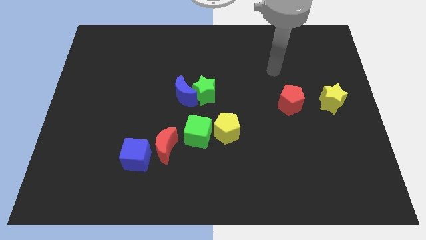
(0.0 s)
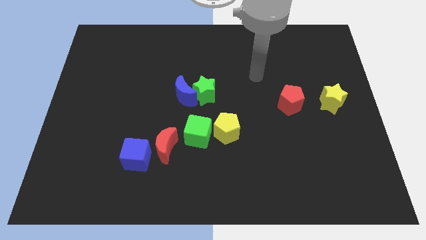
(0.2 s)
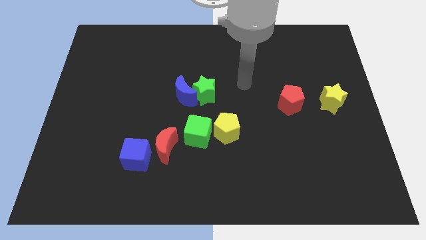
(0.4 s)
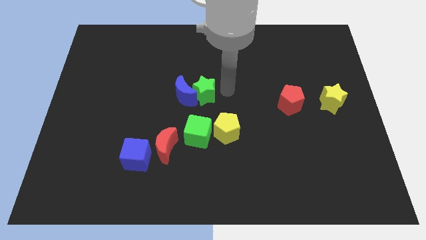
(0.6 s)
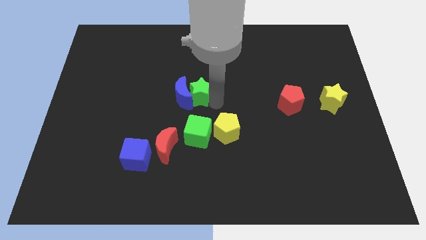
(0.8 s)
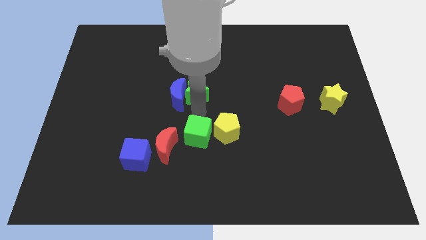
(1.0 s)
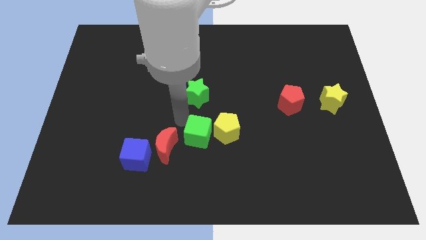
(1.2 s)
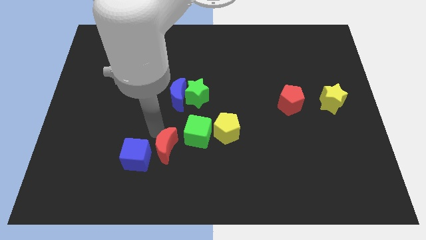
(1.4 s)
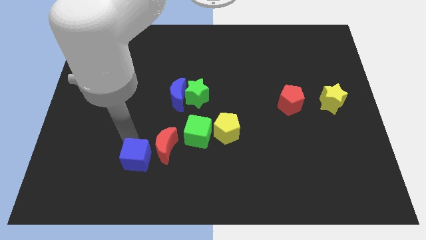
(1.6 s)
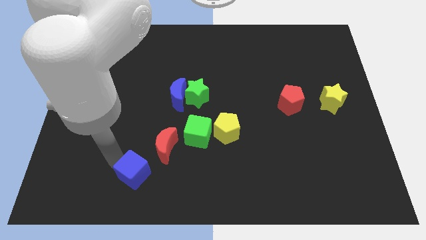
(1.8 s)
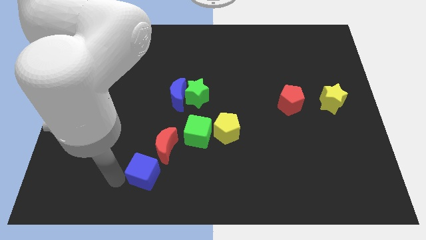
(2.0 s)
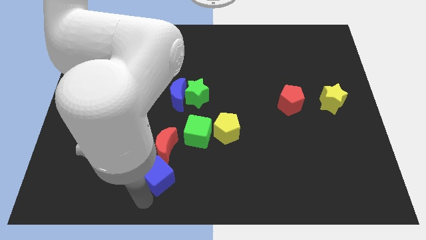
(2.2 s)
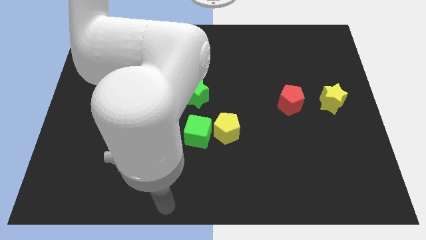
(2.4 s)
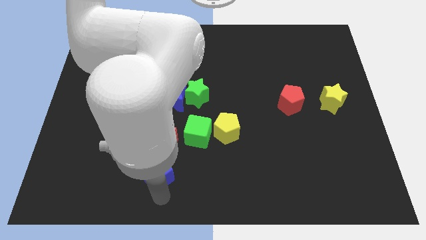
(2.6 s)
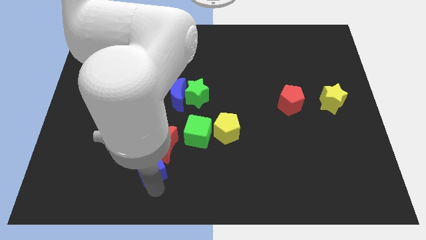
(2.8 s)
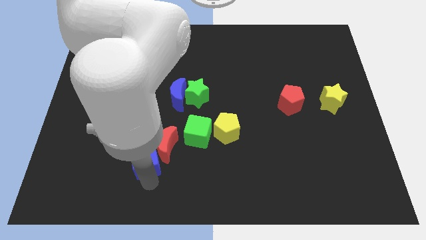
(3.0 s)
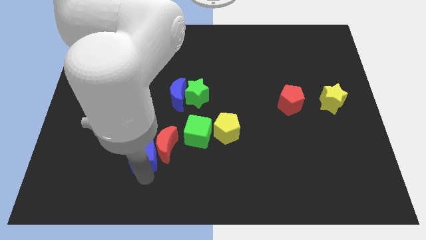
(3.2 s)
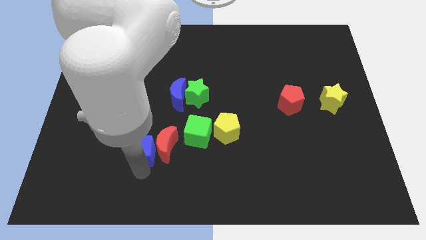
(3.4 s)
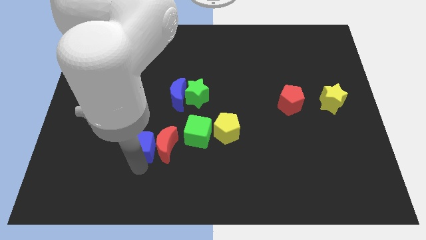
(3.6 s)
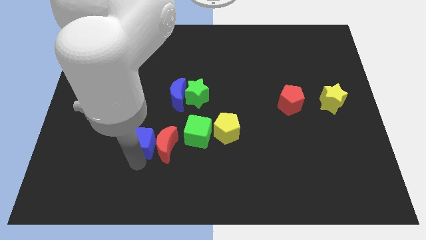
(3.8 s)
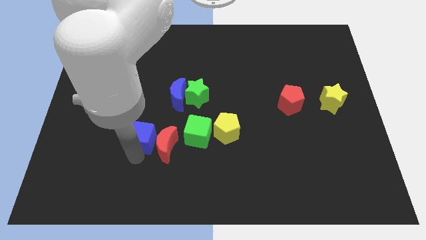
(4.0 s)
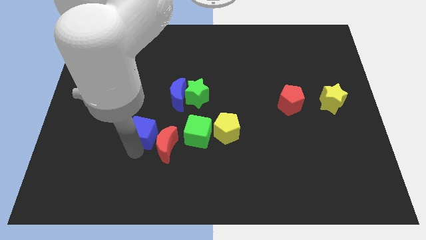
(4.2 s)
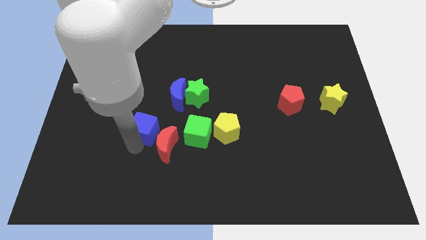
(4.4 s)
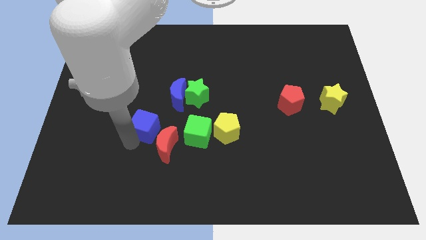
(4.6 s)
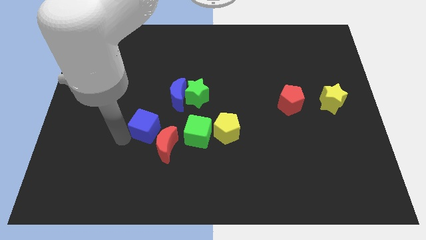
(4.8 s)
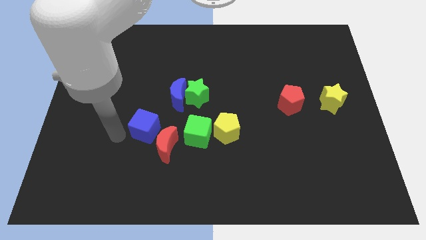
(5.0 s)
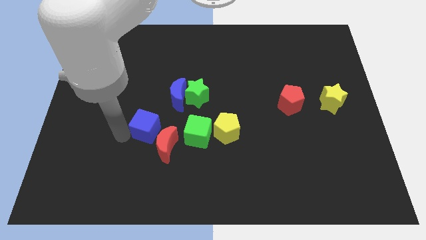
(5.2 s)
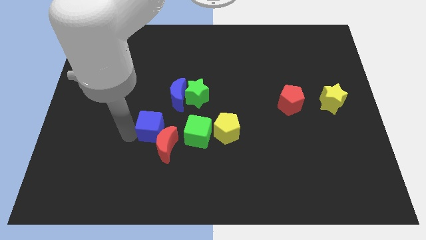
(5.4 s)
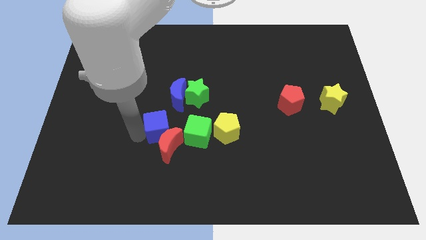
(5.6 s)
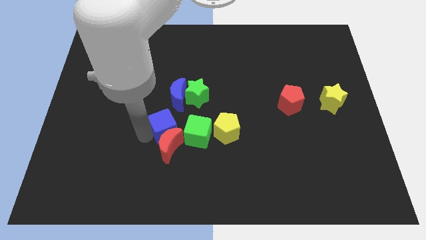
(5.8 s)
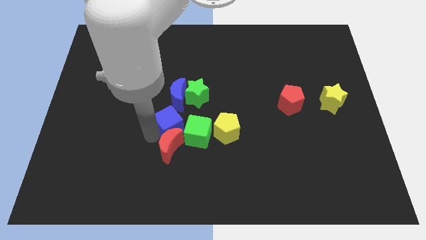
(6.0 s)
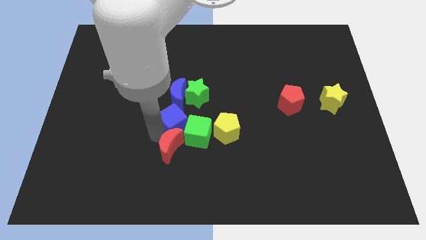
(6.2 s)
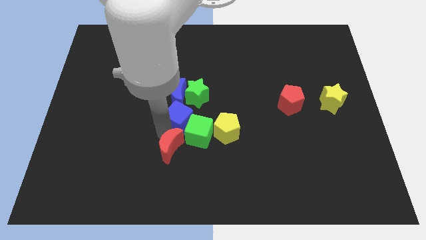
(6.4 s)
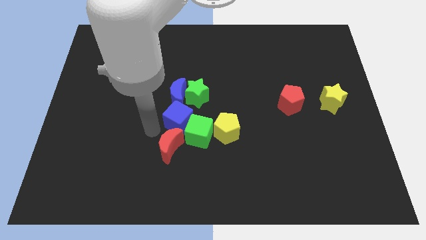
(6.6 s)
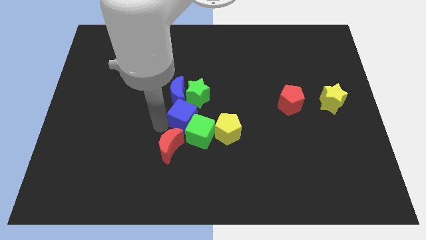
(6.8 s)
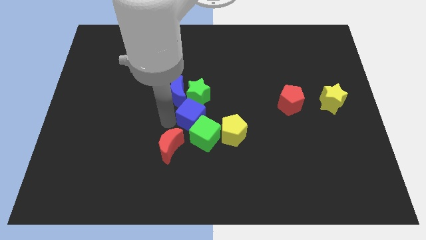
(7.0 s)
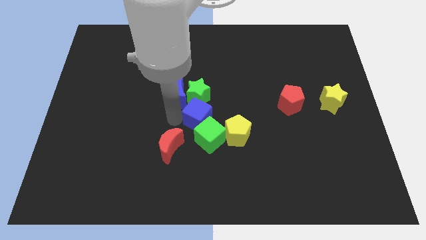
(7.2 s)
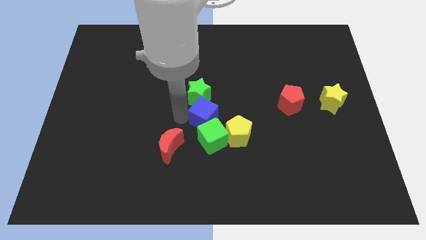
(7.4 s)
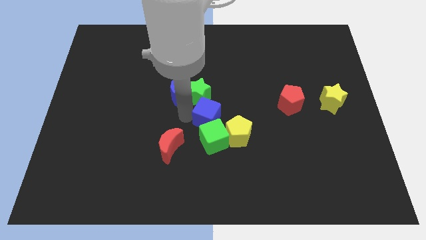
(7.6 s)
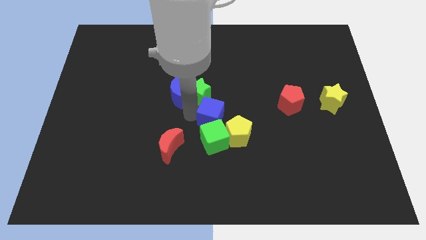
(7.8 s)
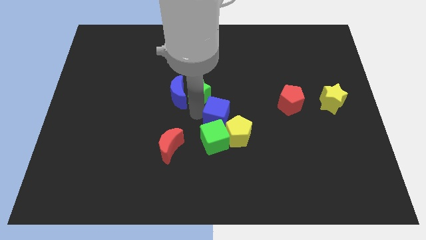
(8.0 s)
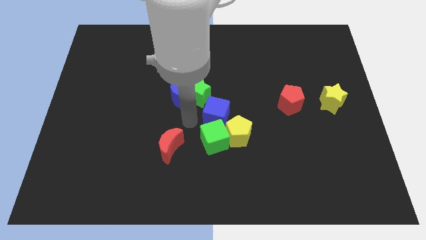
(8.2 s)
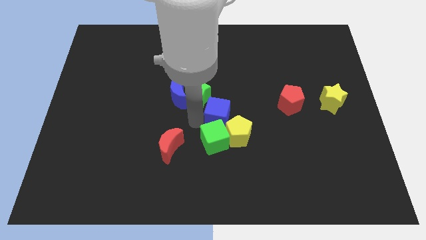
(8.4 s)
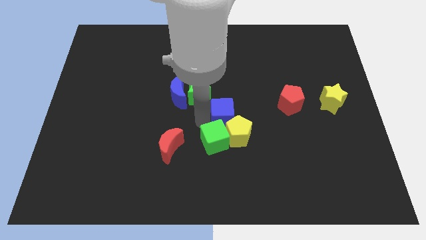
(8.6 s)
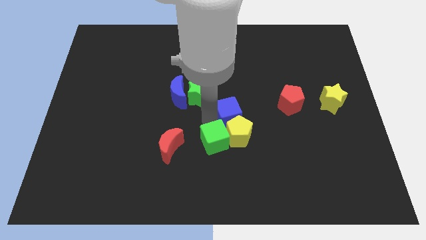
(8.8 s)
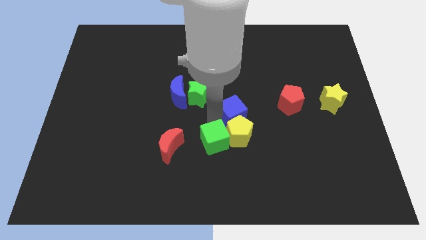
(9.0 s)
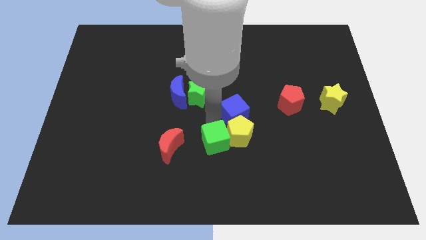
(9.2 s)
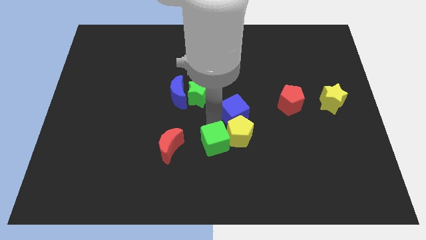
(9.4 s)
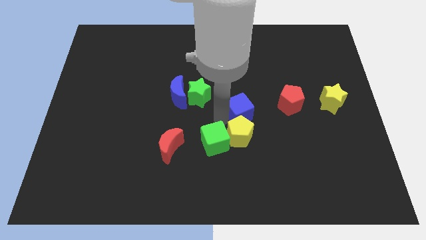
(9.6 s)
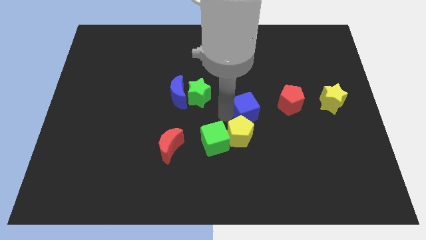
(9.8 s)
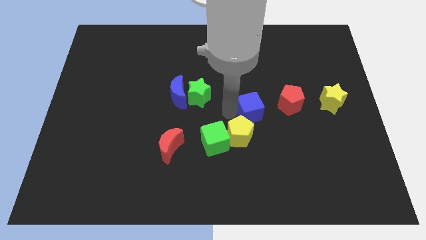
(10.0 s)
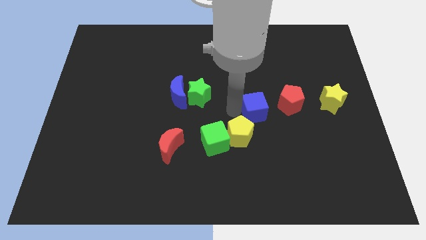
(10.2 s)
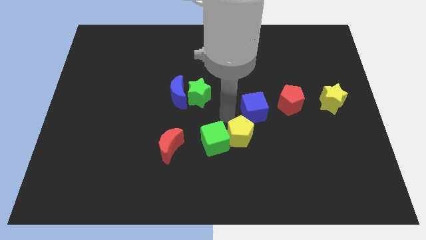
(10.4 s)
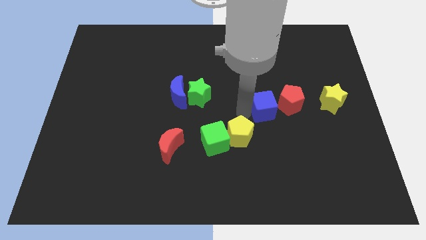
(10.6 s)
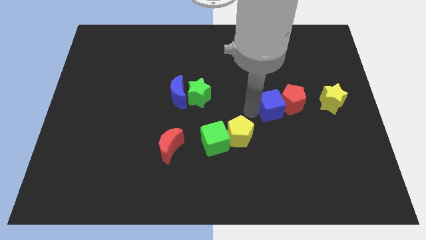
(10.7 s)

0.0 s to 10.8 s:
slide the blue cube close to the red pentagon

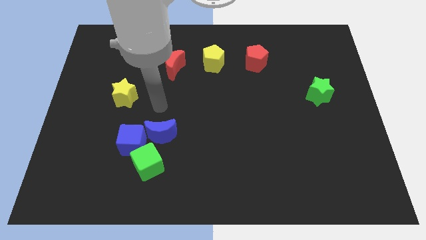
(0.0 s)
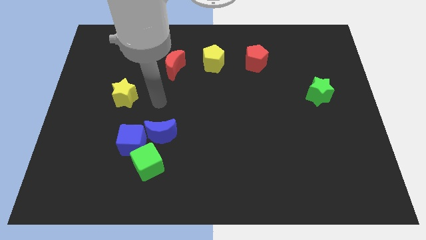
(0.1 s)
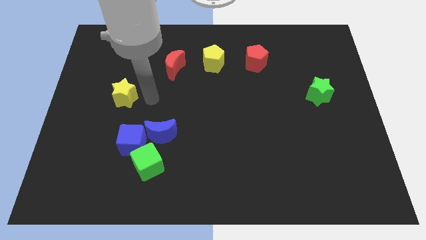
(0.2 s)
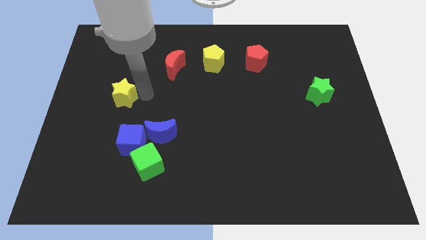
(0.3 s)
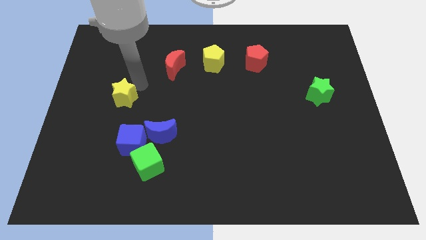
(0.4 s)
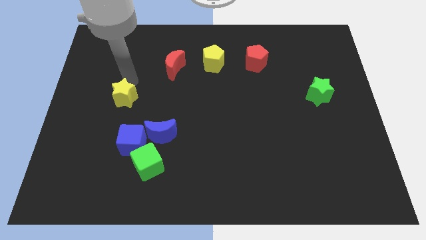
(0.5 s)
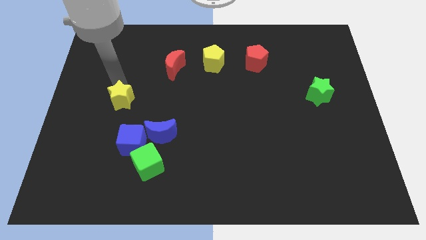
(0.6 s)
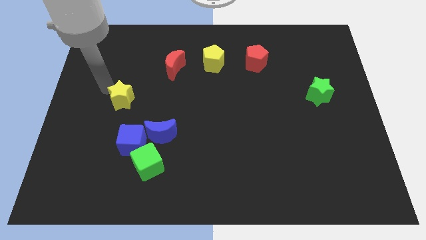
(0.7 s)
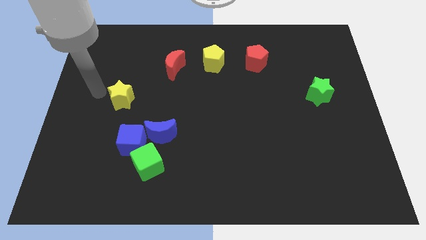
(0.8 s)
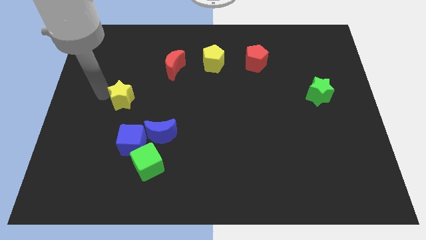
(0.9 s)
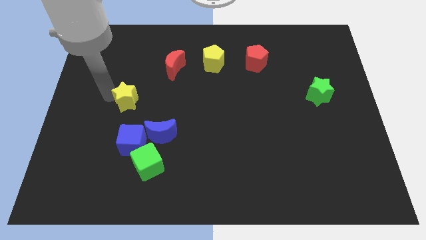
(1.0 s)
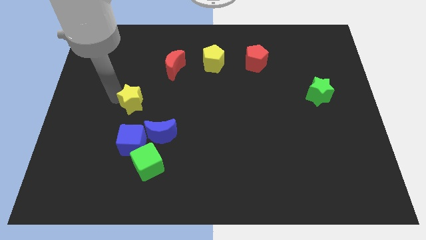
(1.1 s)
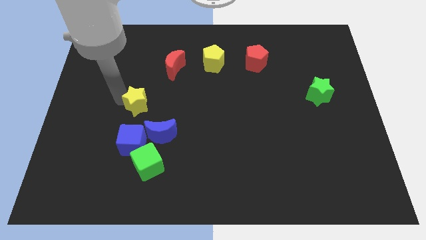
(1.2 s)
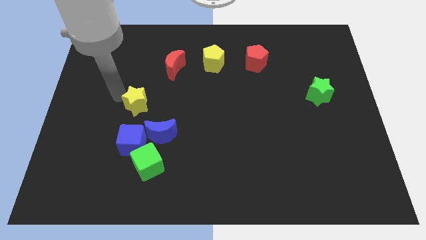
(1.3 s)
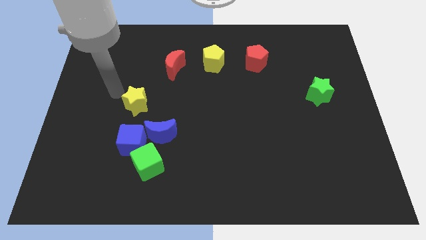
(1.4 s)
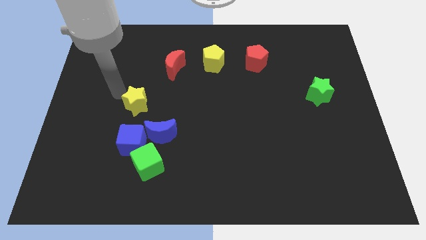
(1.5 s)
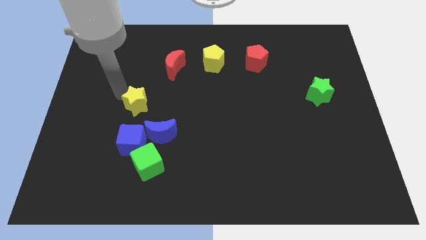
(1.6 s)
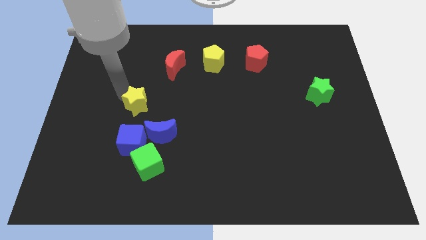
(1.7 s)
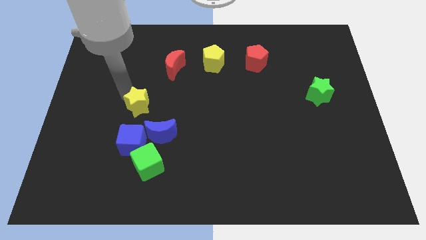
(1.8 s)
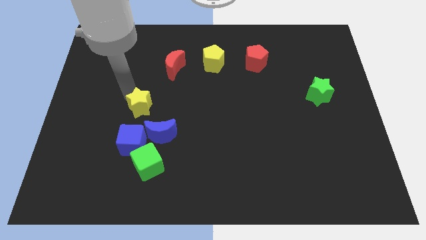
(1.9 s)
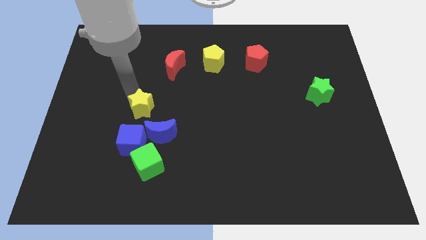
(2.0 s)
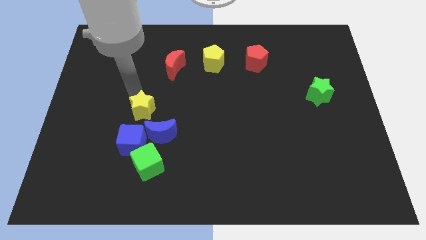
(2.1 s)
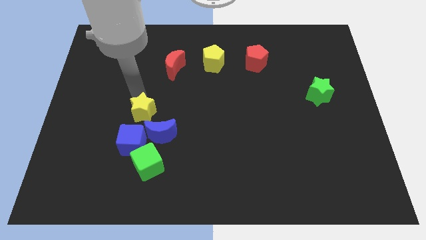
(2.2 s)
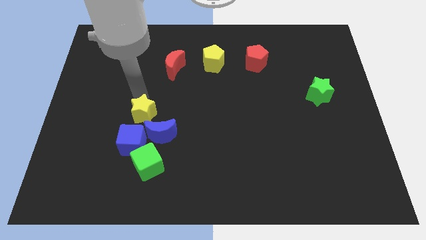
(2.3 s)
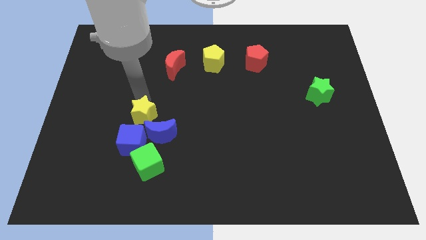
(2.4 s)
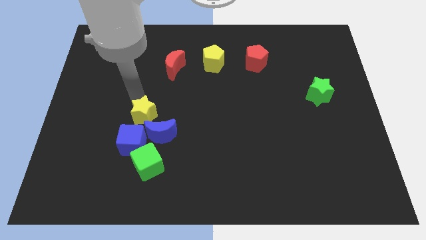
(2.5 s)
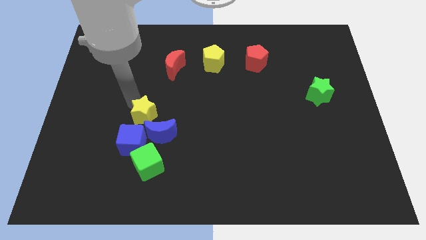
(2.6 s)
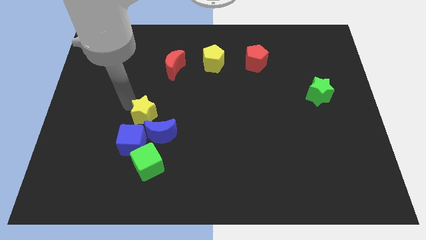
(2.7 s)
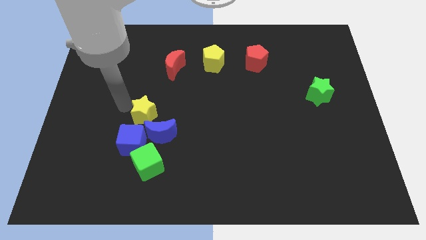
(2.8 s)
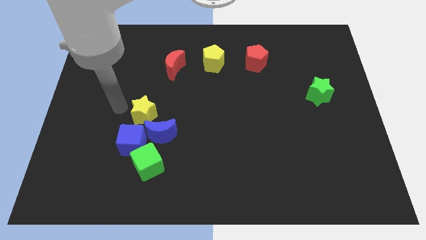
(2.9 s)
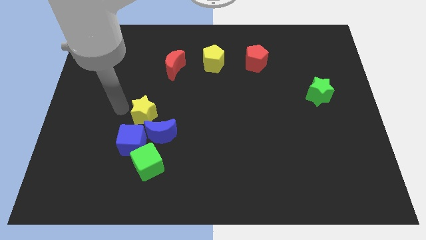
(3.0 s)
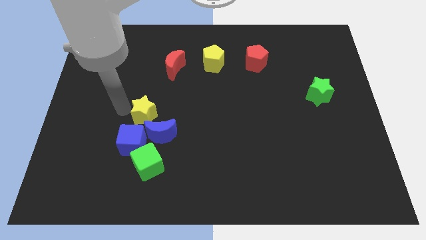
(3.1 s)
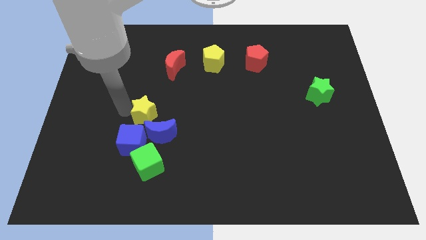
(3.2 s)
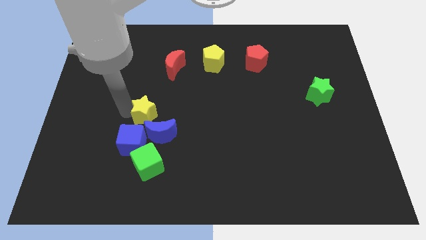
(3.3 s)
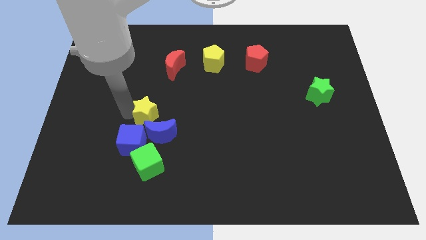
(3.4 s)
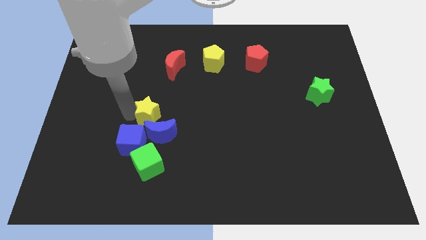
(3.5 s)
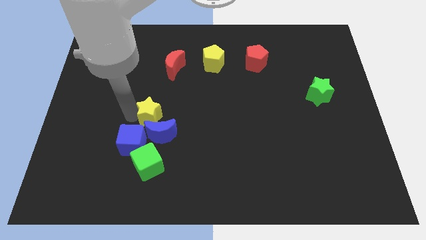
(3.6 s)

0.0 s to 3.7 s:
move the yellow star close to the blue moon
